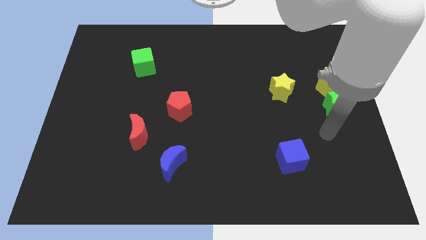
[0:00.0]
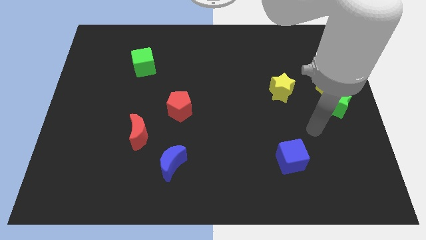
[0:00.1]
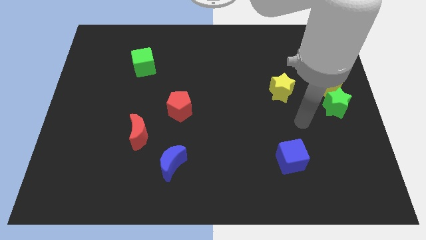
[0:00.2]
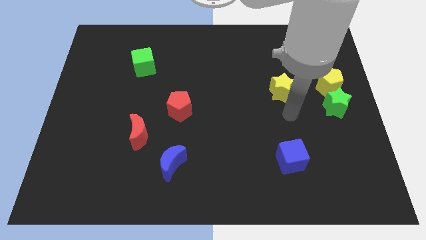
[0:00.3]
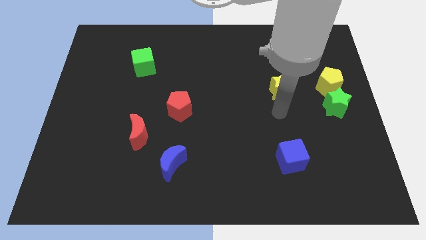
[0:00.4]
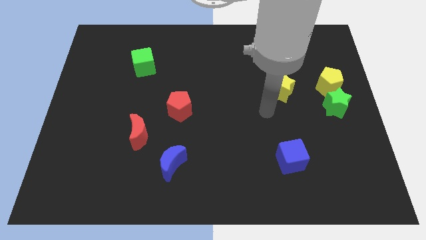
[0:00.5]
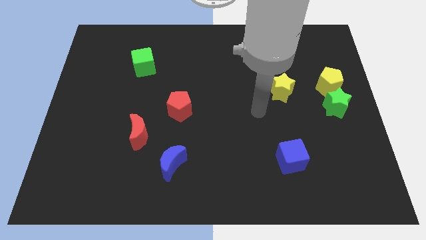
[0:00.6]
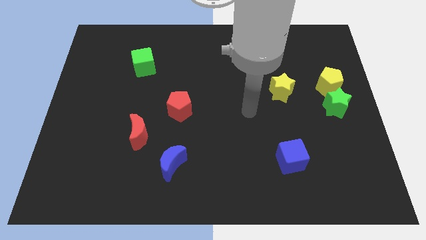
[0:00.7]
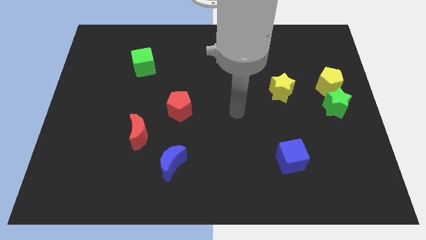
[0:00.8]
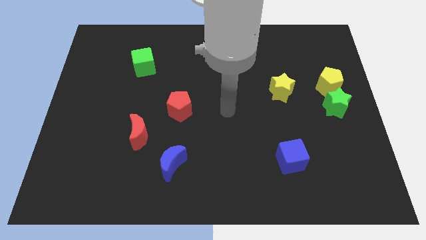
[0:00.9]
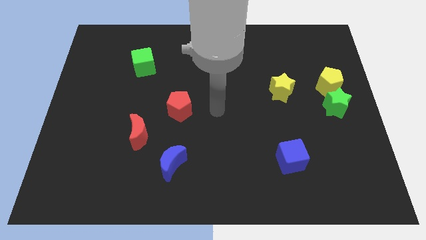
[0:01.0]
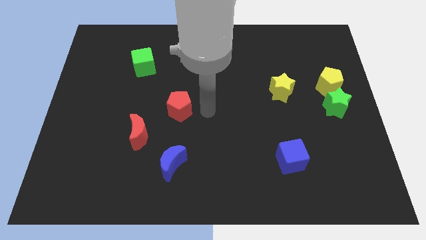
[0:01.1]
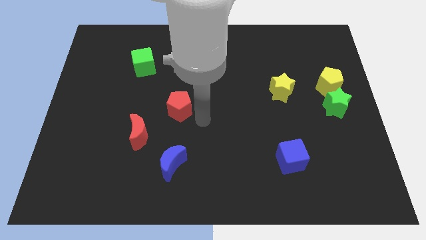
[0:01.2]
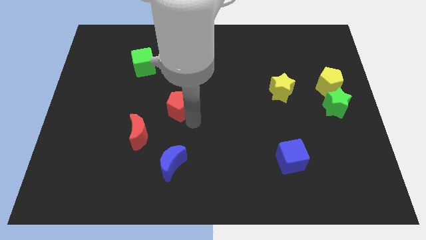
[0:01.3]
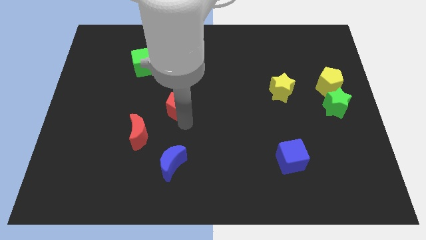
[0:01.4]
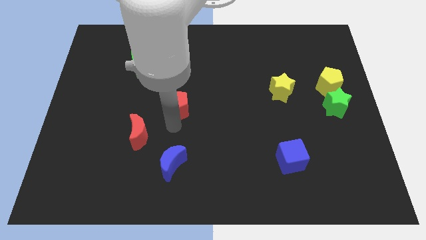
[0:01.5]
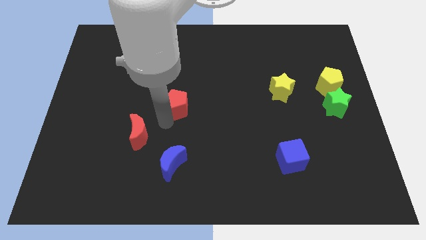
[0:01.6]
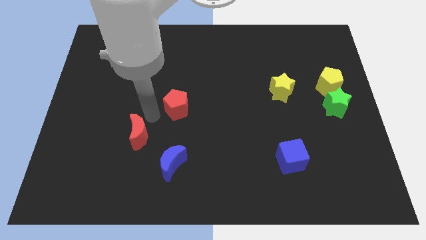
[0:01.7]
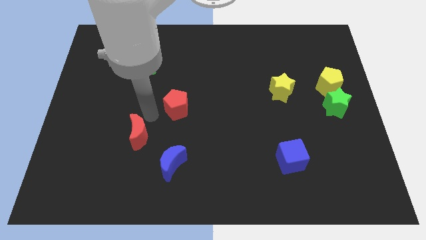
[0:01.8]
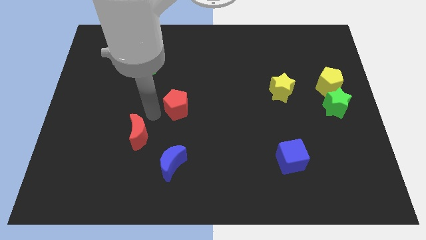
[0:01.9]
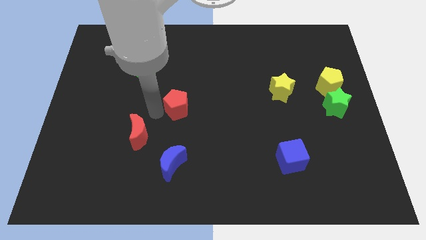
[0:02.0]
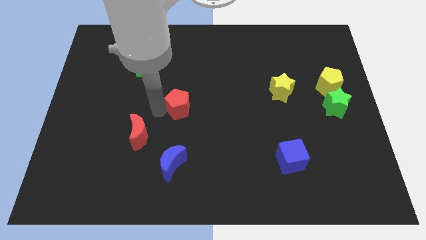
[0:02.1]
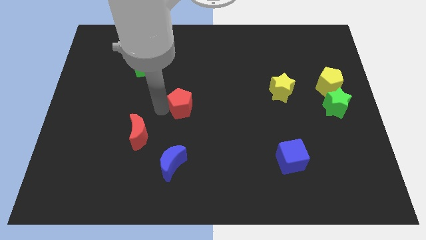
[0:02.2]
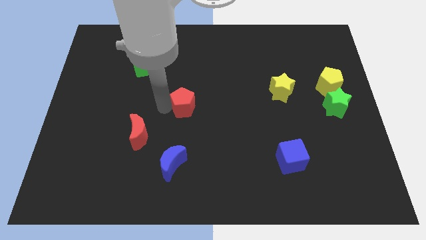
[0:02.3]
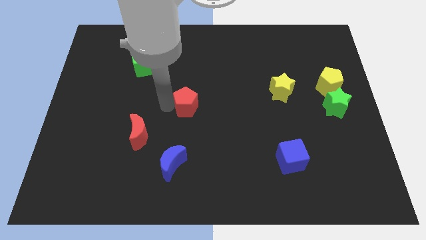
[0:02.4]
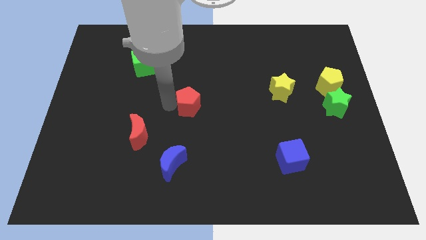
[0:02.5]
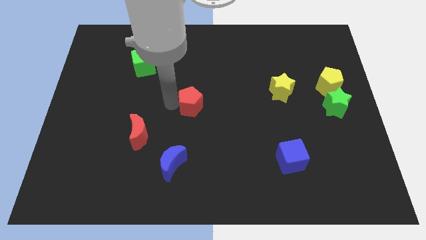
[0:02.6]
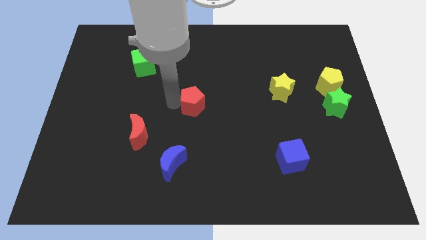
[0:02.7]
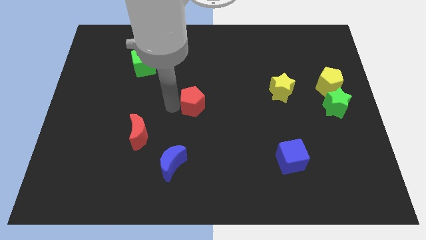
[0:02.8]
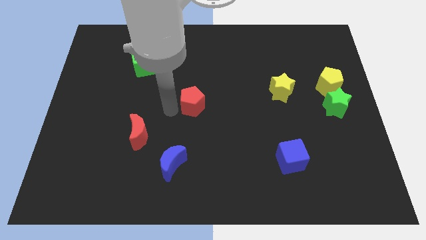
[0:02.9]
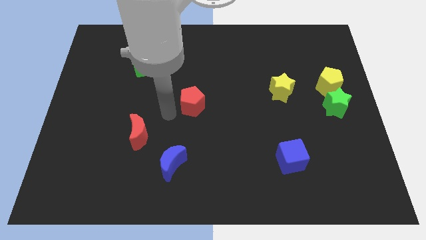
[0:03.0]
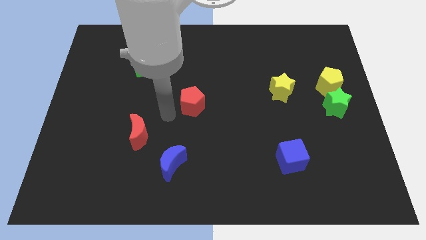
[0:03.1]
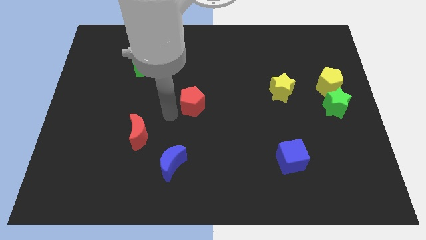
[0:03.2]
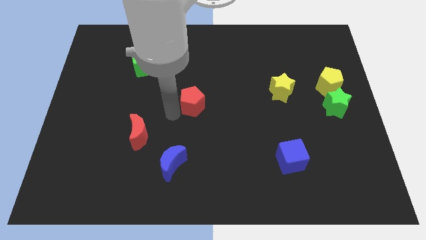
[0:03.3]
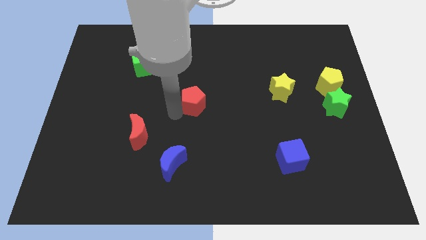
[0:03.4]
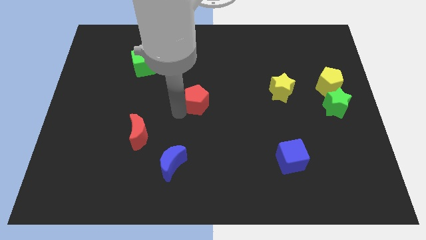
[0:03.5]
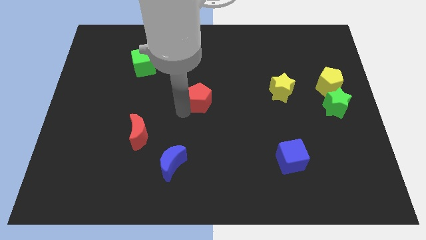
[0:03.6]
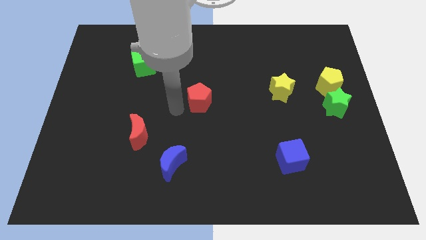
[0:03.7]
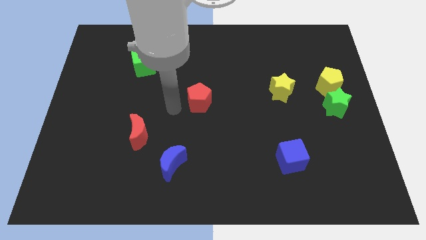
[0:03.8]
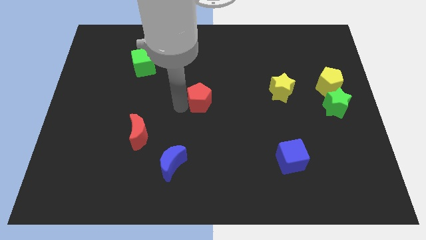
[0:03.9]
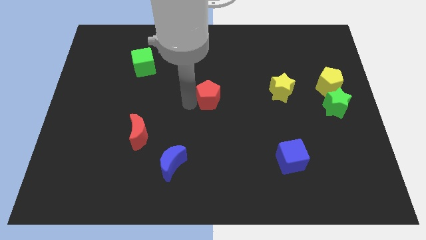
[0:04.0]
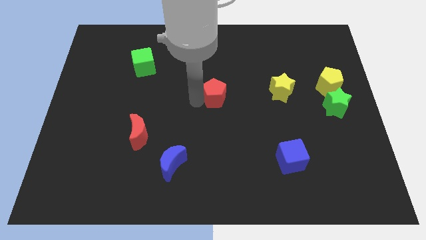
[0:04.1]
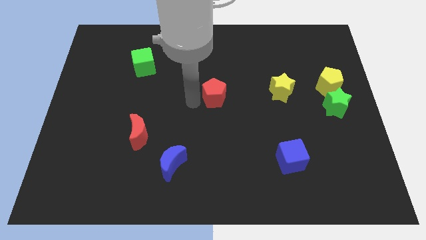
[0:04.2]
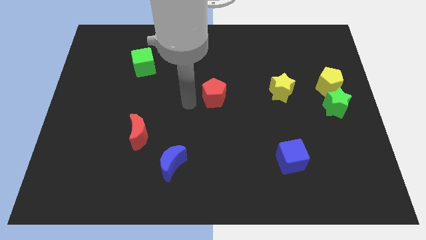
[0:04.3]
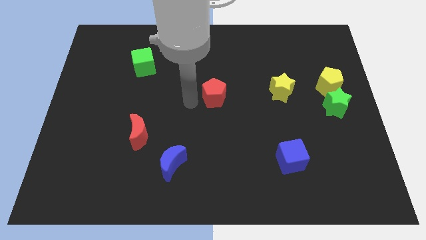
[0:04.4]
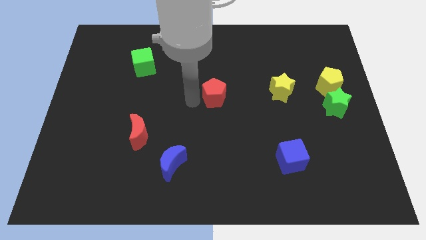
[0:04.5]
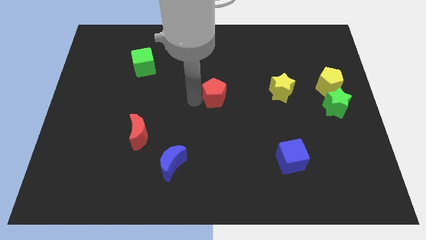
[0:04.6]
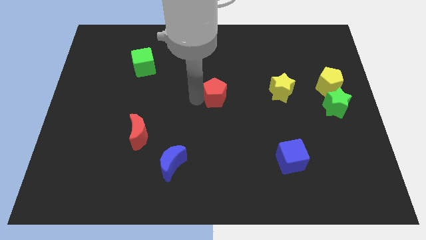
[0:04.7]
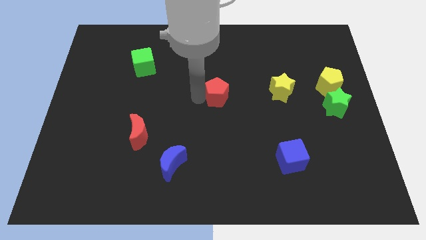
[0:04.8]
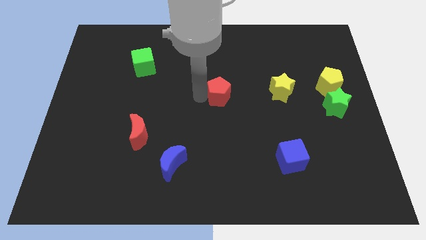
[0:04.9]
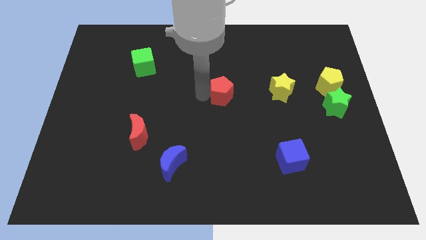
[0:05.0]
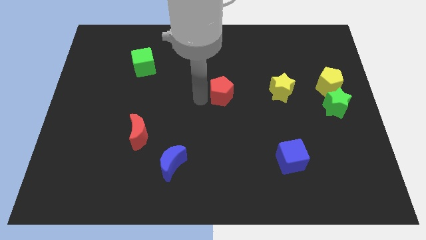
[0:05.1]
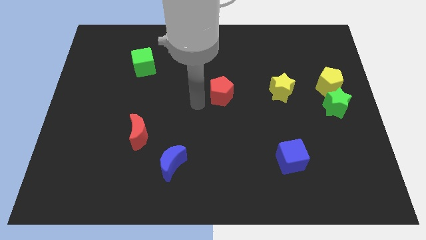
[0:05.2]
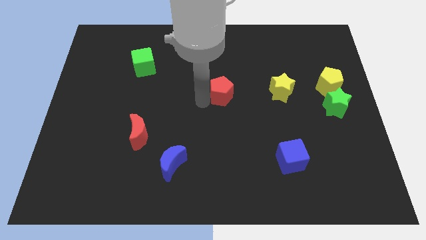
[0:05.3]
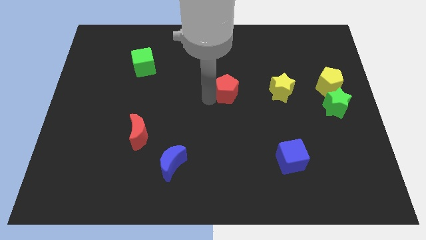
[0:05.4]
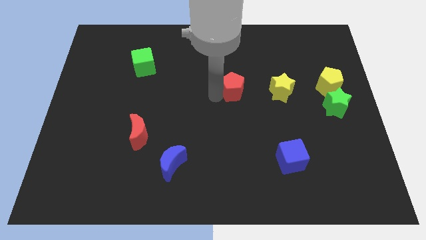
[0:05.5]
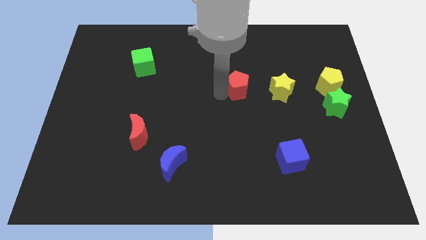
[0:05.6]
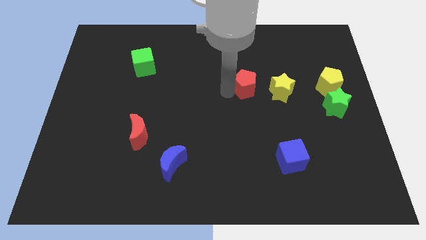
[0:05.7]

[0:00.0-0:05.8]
push the red pentagon to the top left side of the yellow star

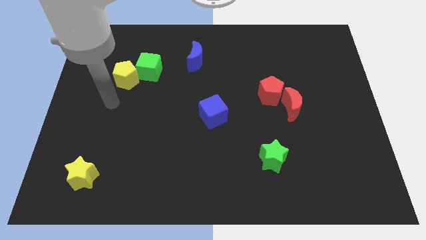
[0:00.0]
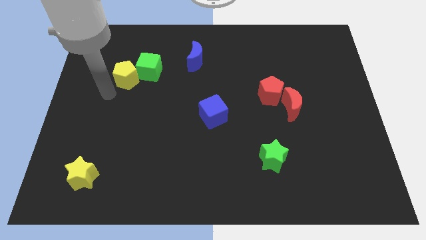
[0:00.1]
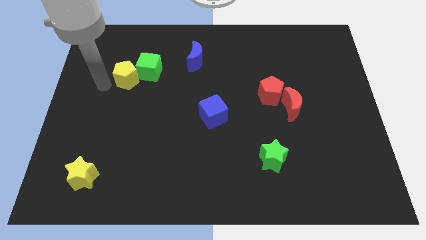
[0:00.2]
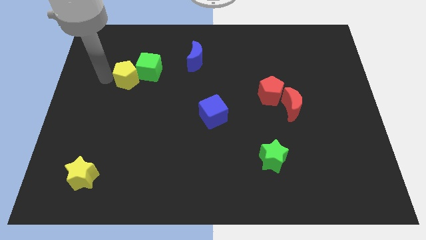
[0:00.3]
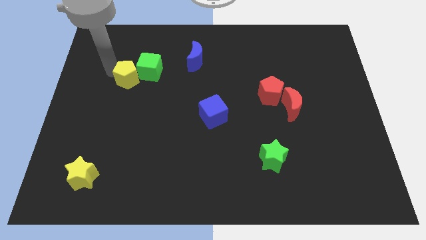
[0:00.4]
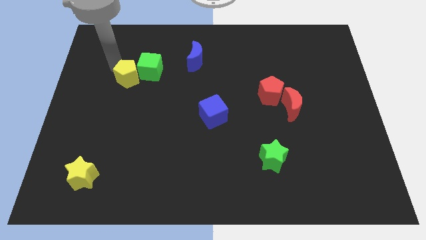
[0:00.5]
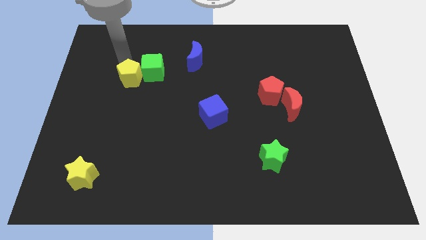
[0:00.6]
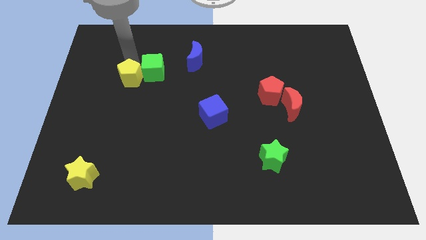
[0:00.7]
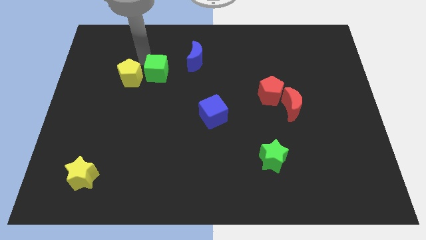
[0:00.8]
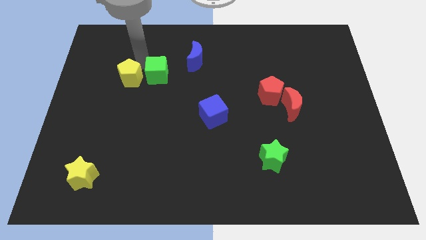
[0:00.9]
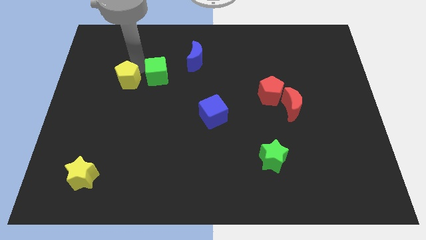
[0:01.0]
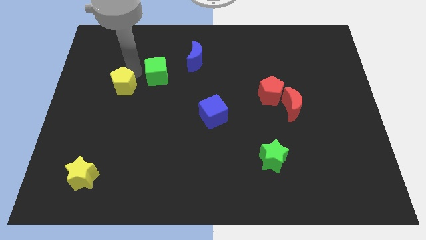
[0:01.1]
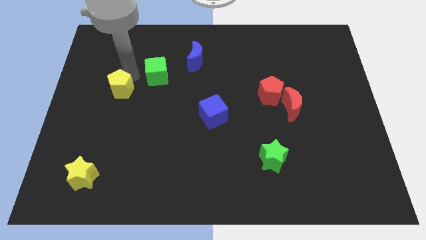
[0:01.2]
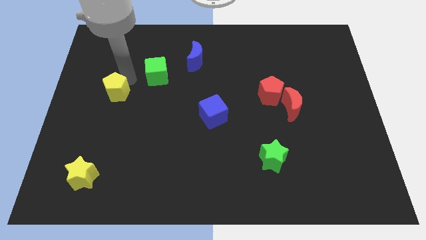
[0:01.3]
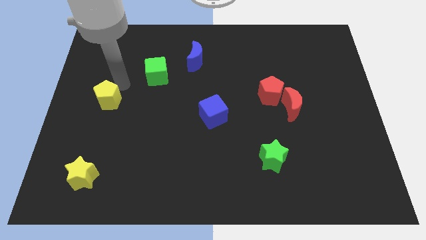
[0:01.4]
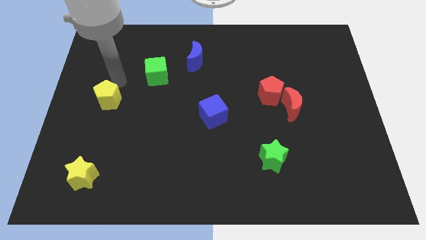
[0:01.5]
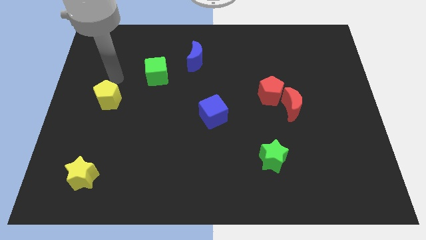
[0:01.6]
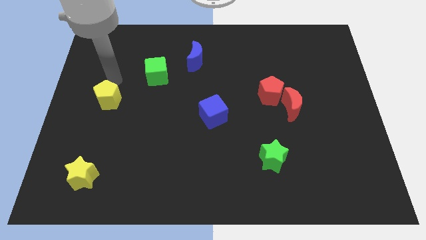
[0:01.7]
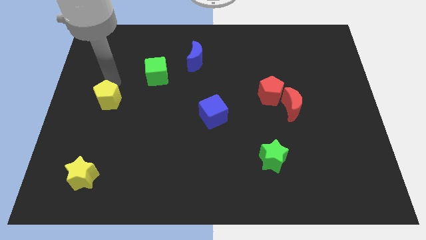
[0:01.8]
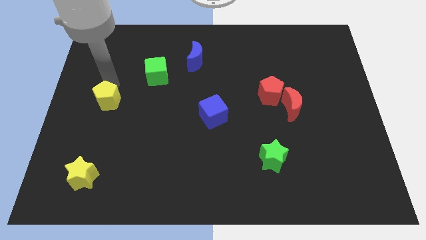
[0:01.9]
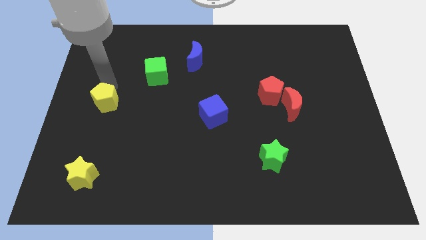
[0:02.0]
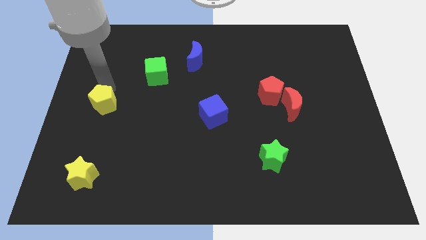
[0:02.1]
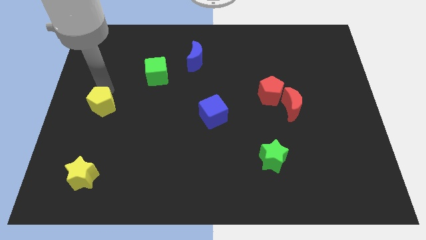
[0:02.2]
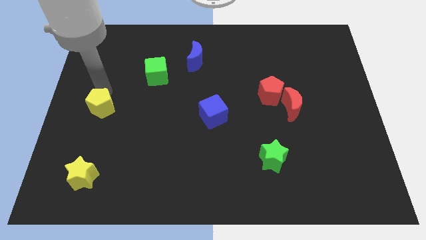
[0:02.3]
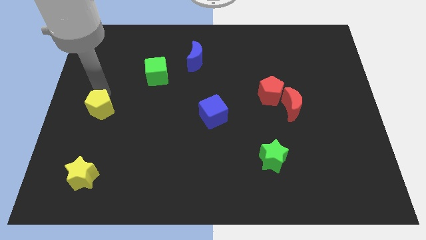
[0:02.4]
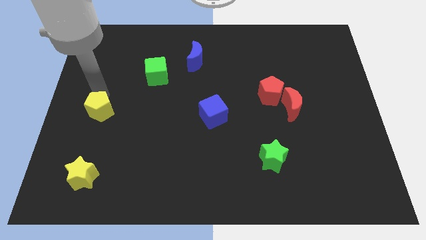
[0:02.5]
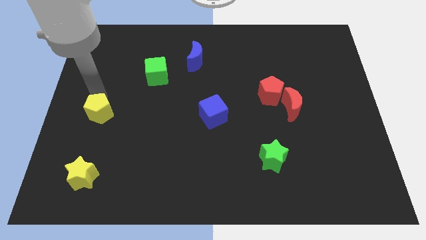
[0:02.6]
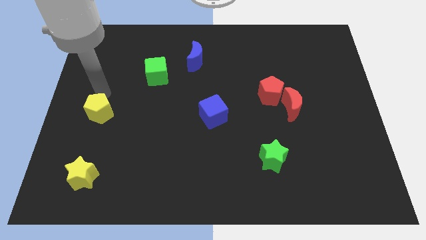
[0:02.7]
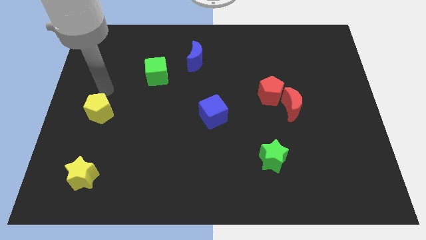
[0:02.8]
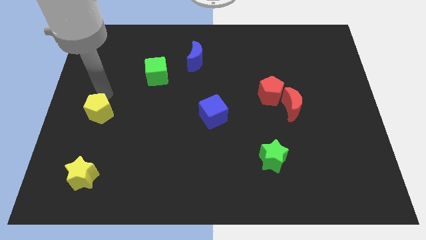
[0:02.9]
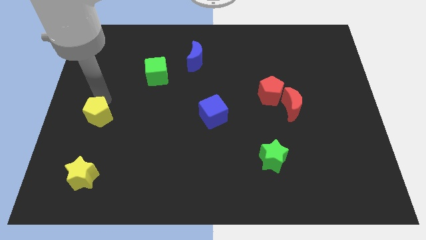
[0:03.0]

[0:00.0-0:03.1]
slide the yellow pentagon to the top side of the yellow star
